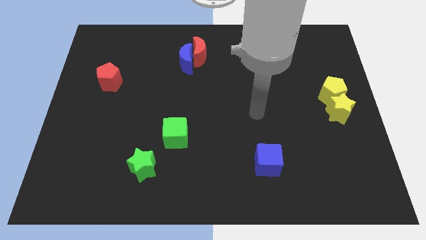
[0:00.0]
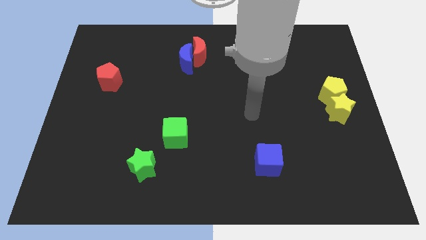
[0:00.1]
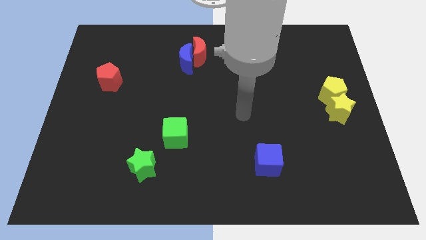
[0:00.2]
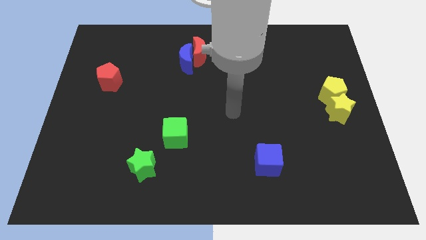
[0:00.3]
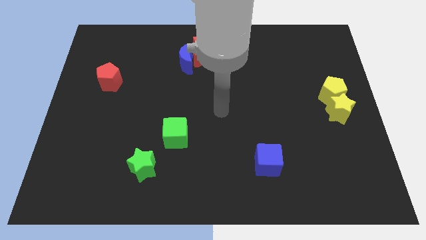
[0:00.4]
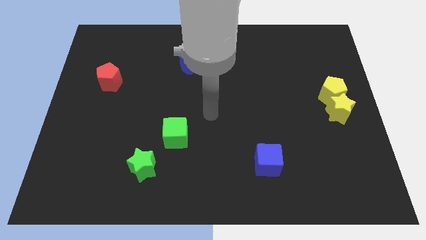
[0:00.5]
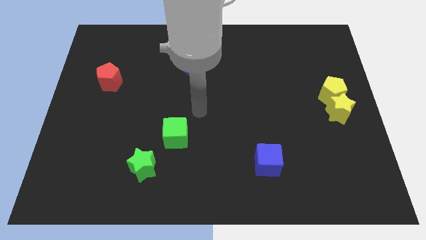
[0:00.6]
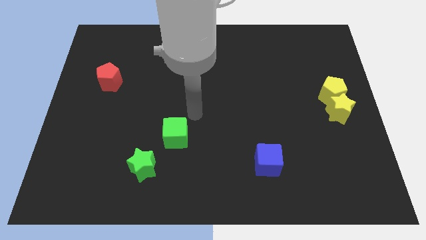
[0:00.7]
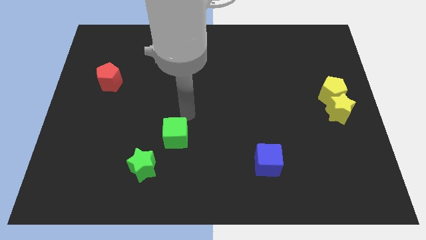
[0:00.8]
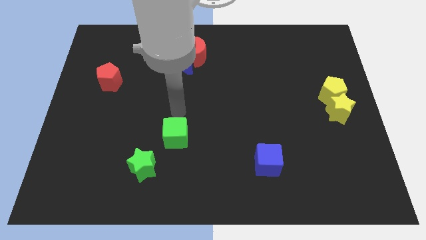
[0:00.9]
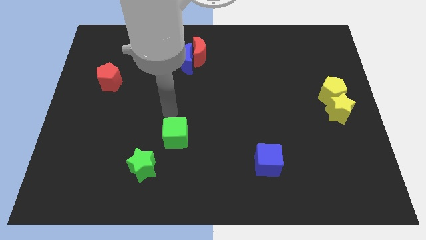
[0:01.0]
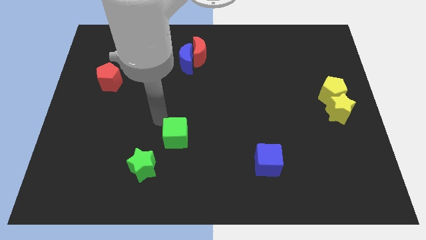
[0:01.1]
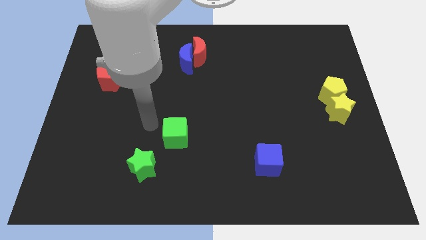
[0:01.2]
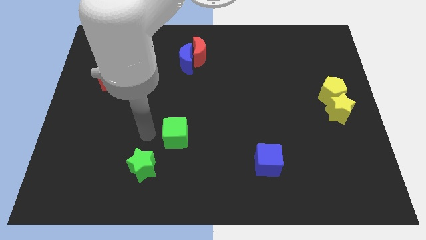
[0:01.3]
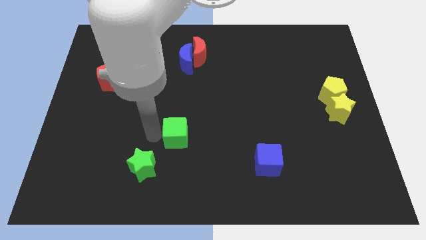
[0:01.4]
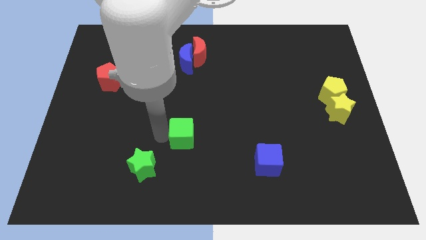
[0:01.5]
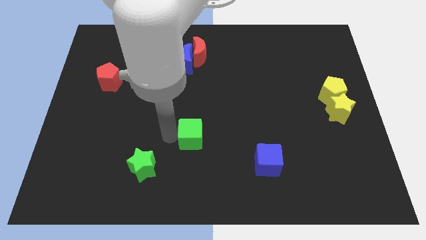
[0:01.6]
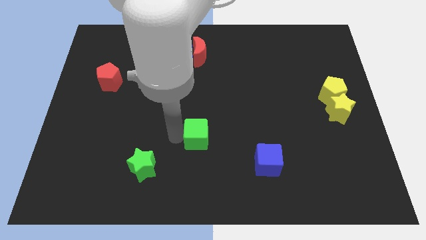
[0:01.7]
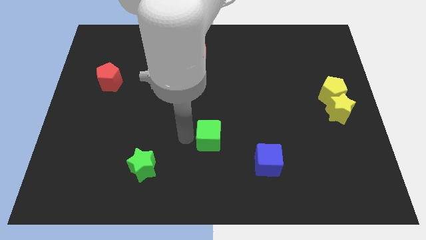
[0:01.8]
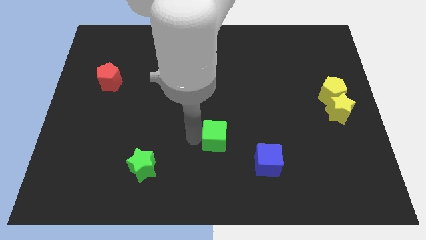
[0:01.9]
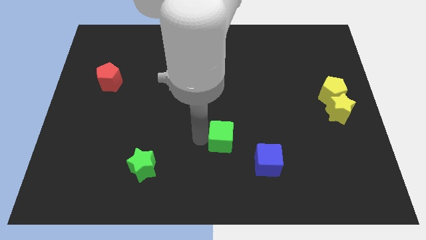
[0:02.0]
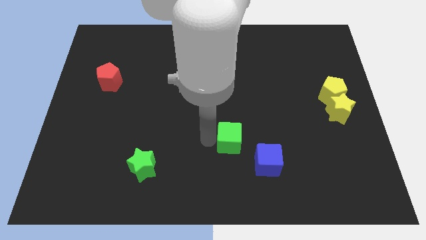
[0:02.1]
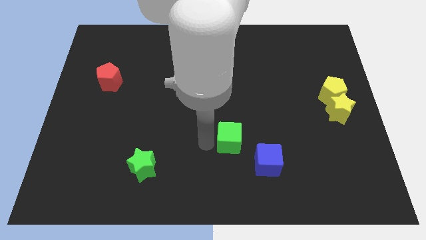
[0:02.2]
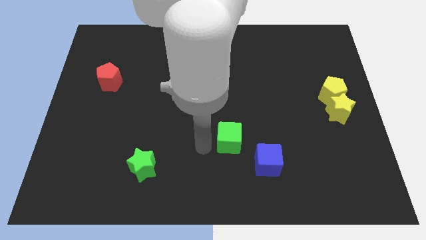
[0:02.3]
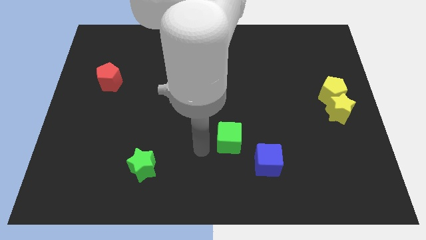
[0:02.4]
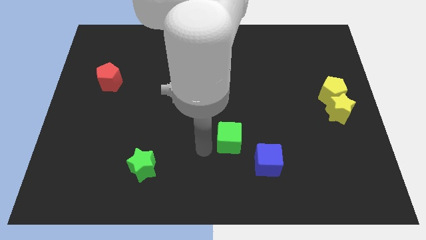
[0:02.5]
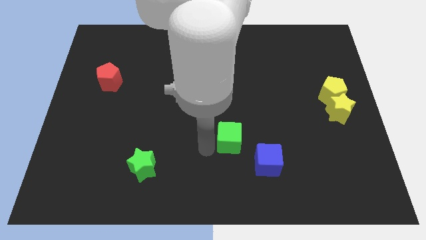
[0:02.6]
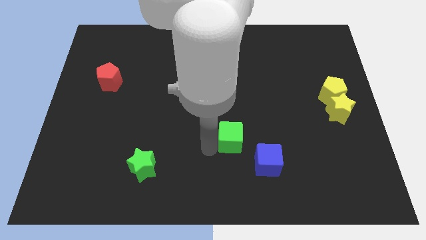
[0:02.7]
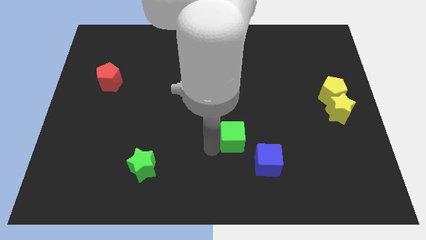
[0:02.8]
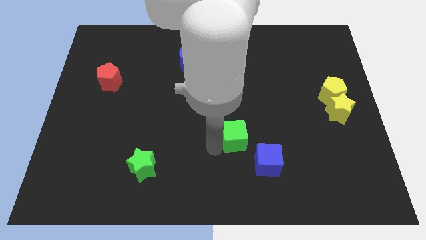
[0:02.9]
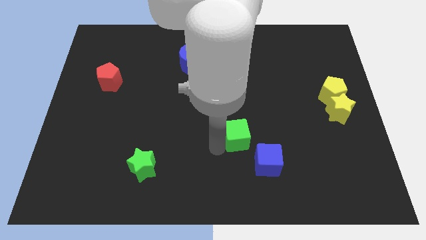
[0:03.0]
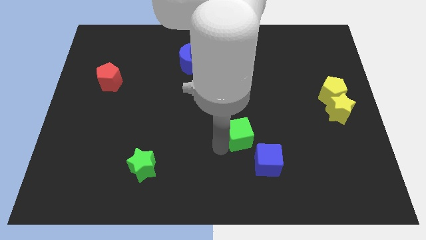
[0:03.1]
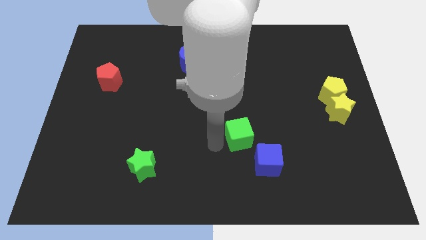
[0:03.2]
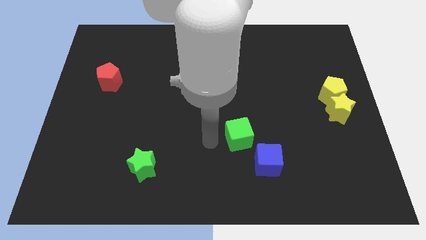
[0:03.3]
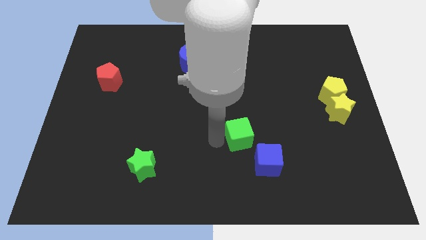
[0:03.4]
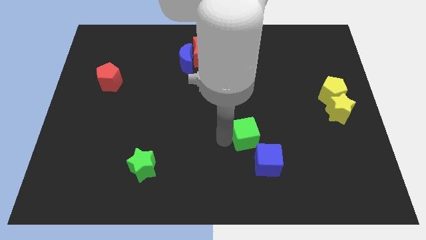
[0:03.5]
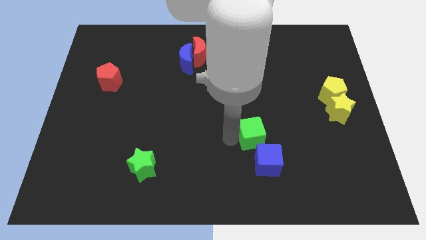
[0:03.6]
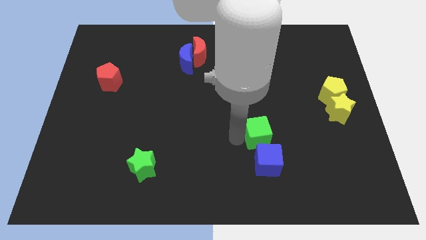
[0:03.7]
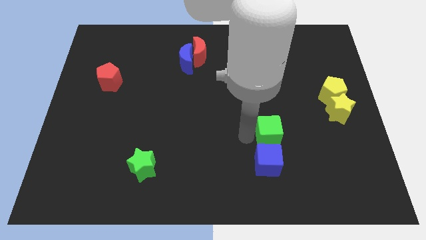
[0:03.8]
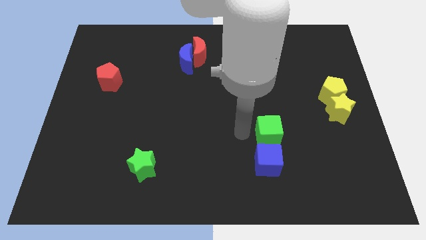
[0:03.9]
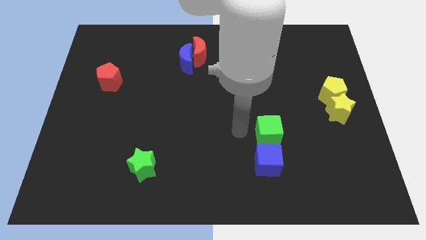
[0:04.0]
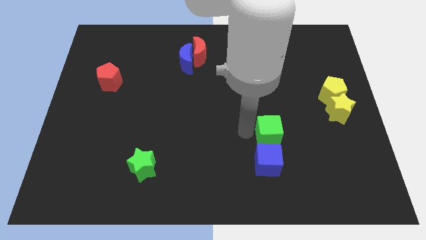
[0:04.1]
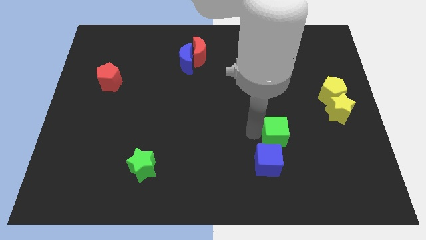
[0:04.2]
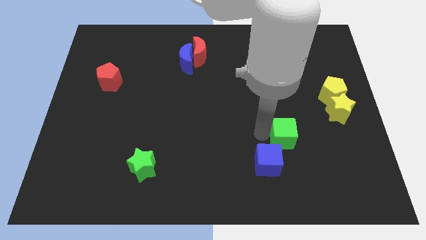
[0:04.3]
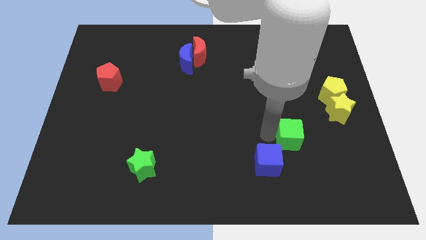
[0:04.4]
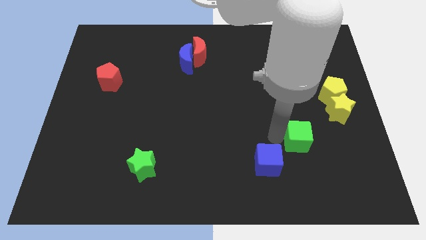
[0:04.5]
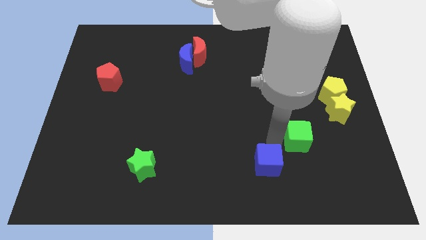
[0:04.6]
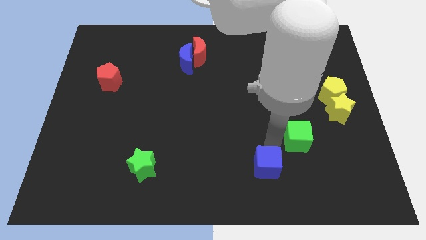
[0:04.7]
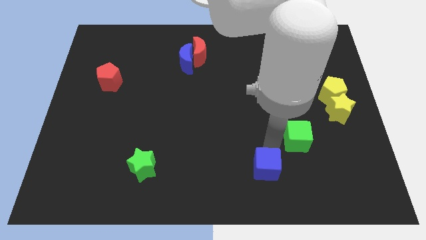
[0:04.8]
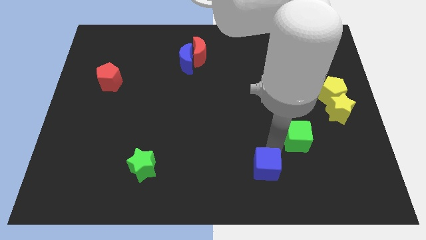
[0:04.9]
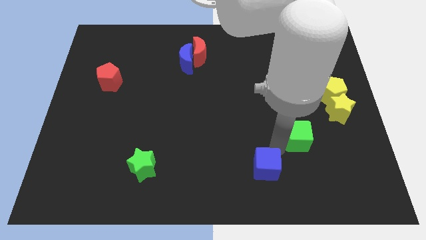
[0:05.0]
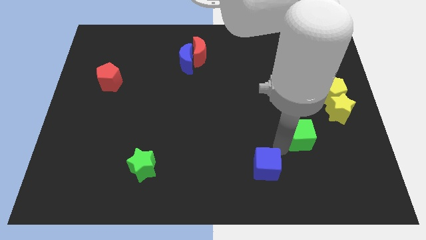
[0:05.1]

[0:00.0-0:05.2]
slide the green cube to the bottom left of the yellow star
